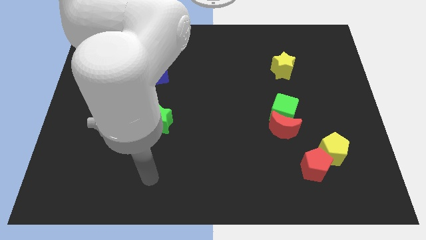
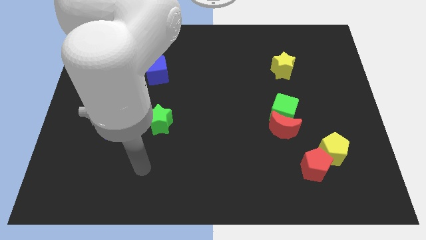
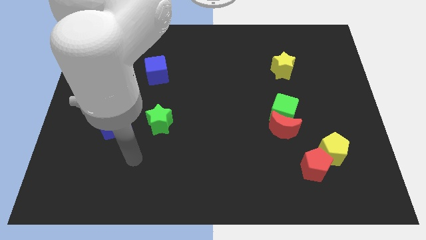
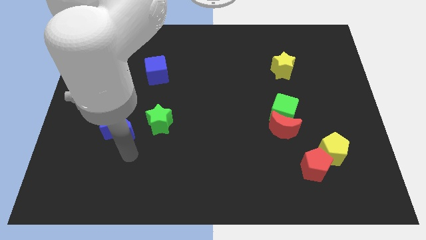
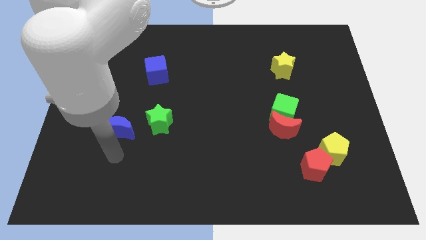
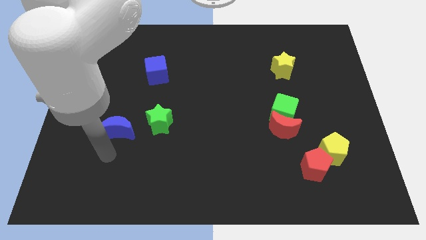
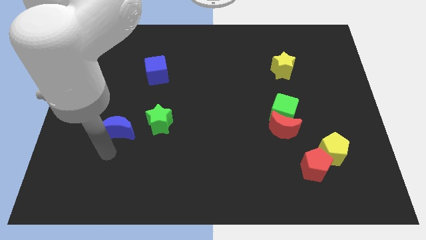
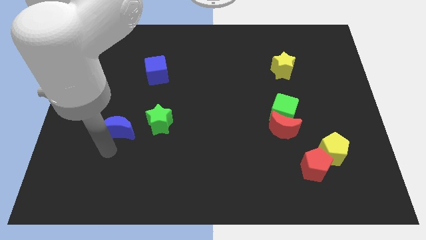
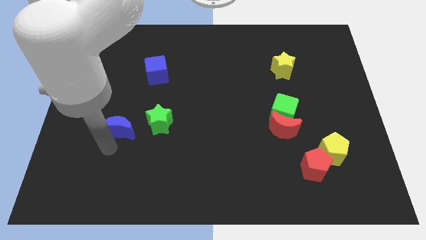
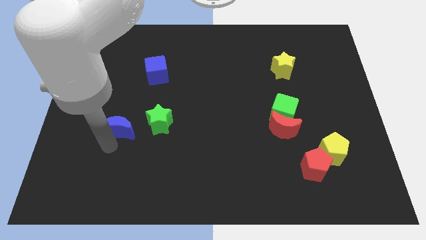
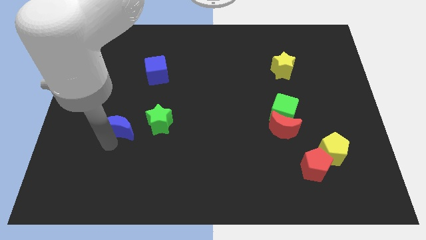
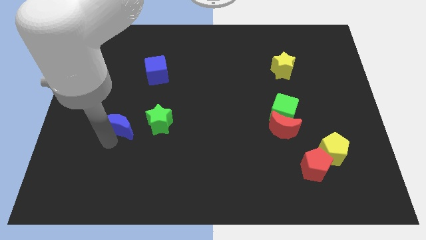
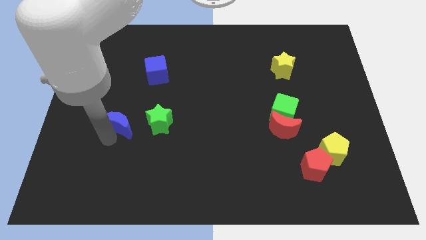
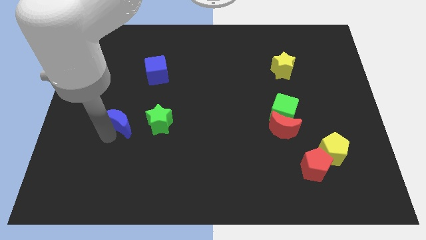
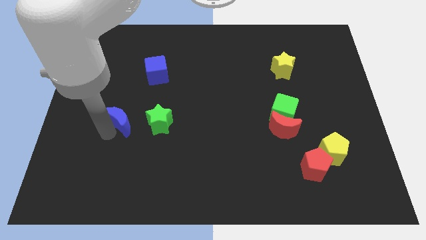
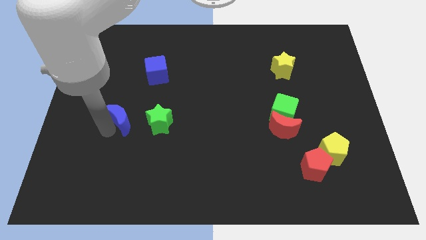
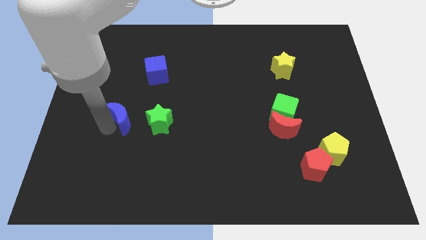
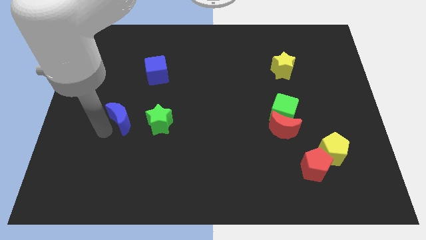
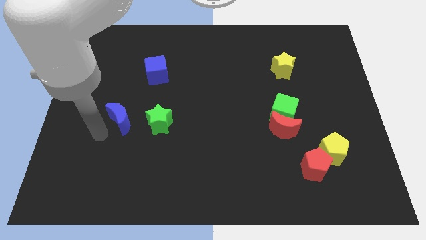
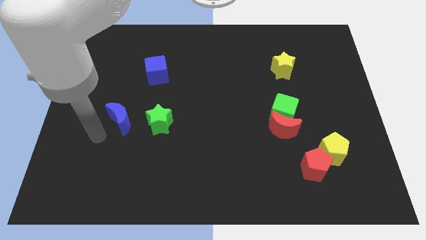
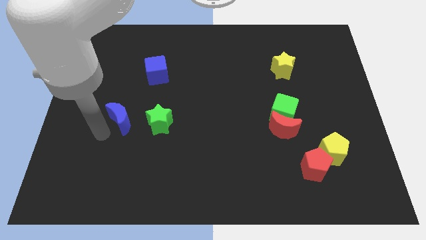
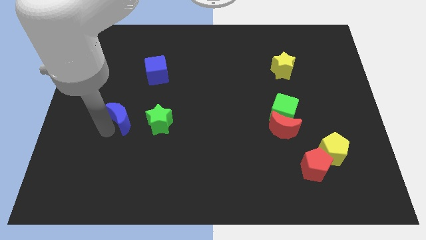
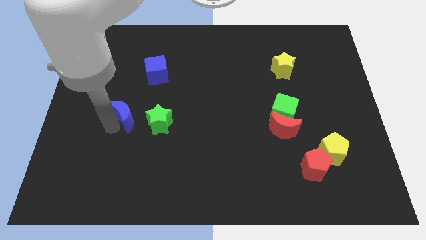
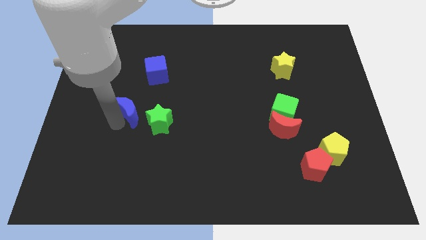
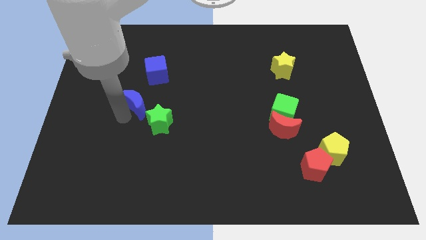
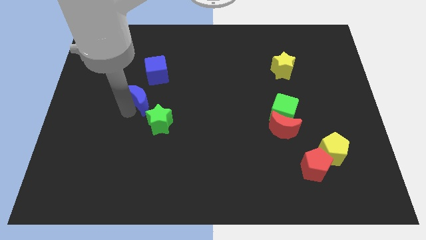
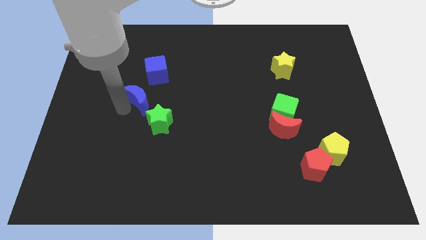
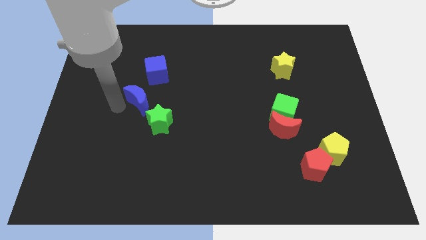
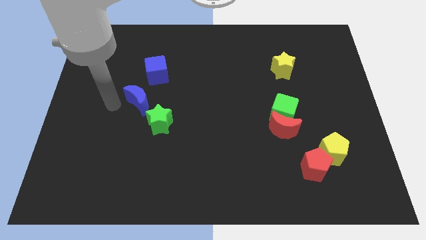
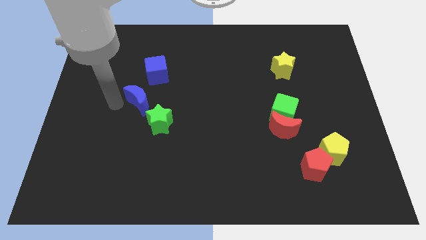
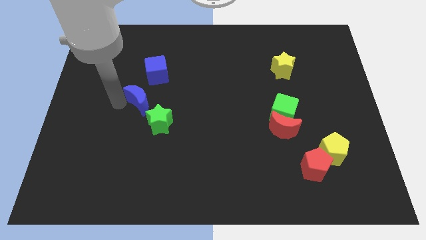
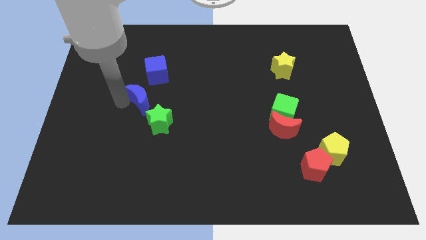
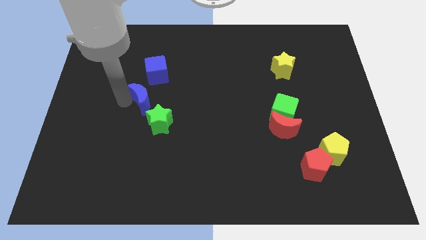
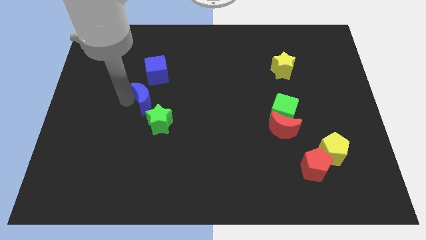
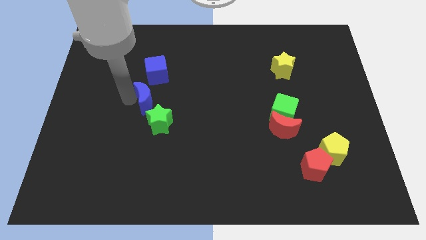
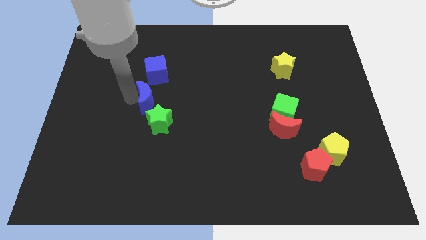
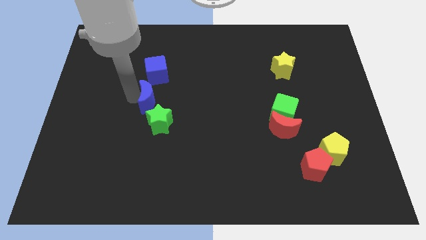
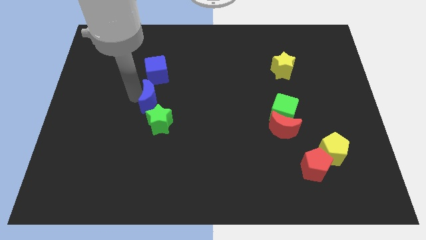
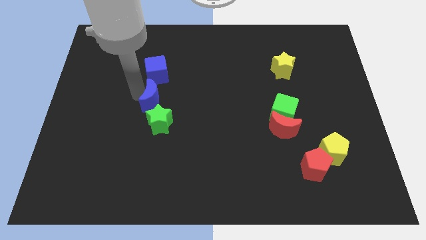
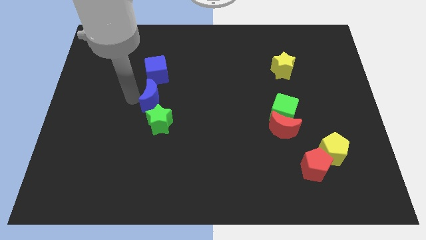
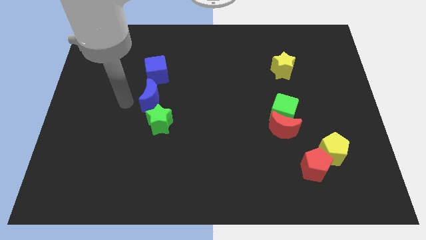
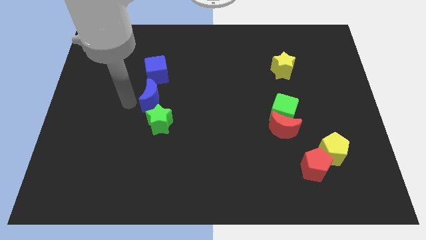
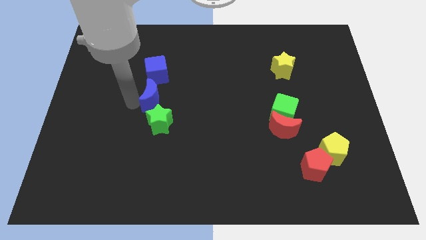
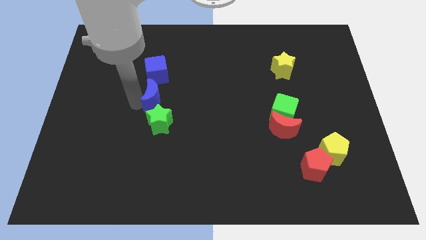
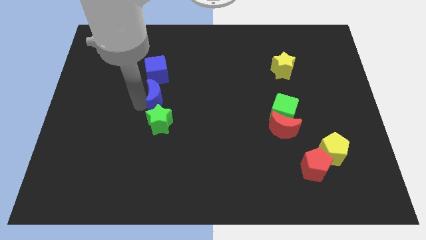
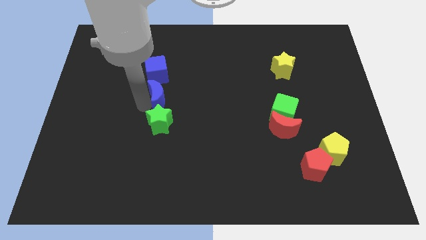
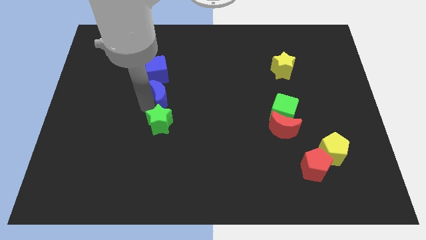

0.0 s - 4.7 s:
put the blue moon to the center

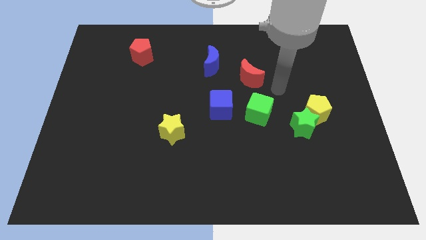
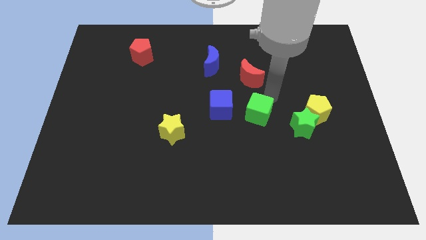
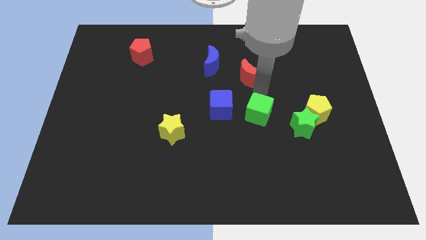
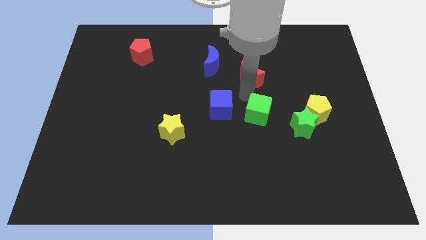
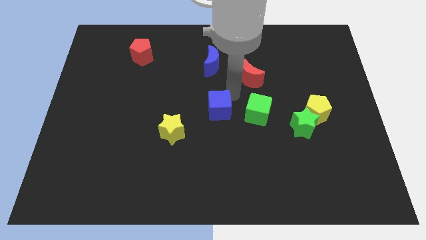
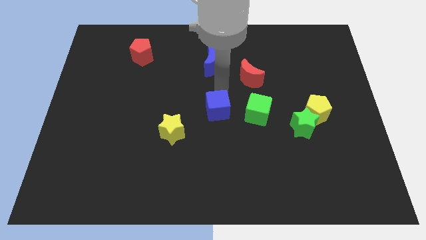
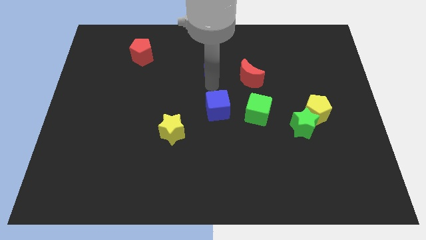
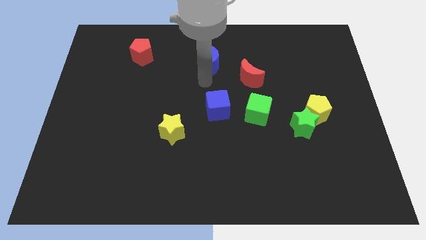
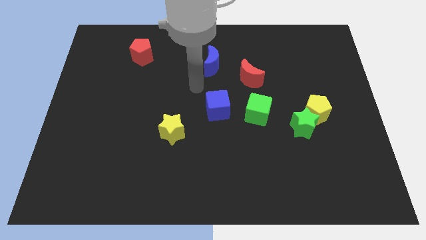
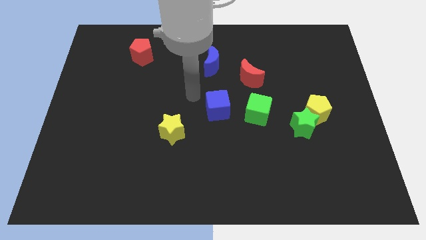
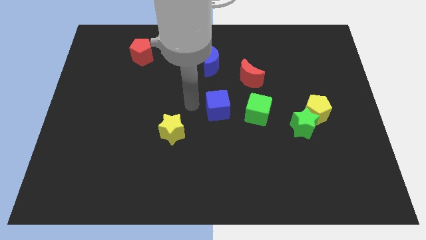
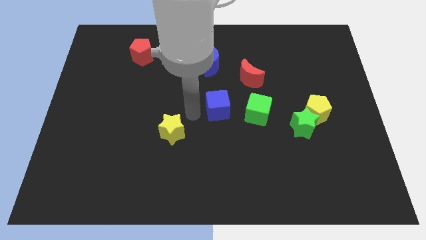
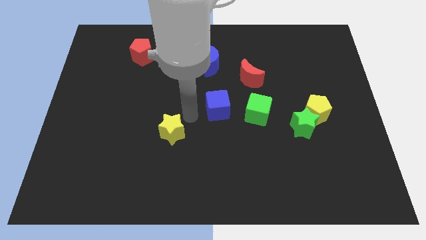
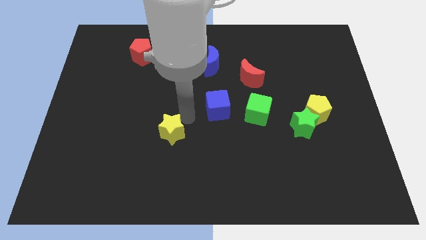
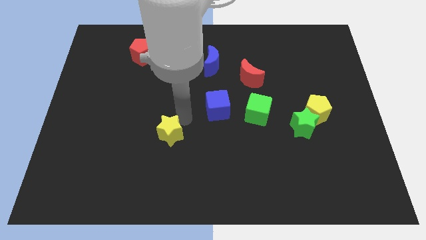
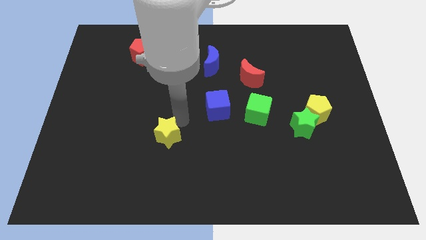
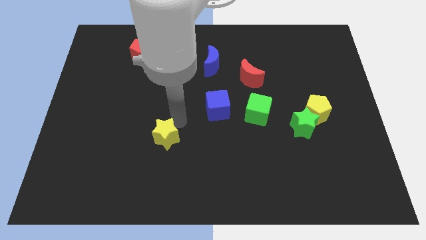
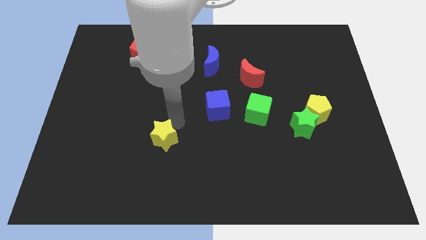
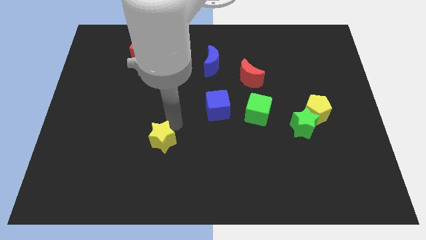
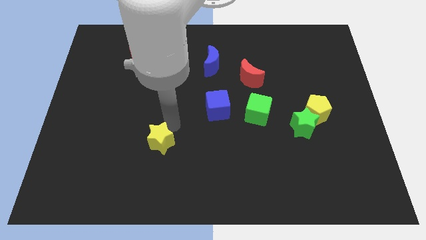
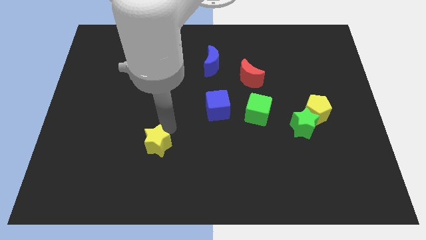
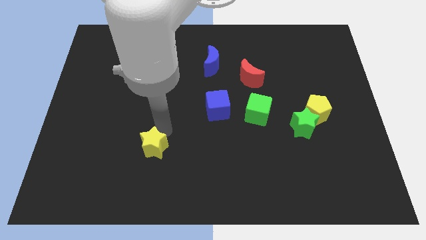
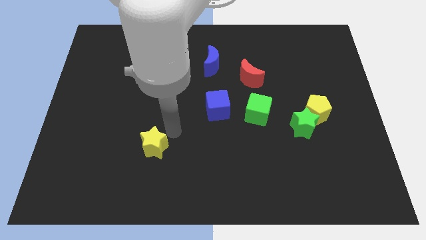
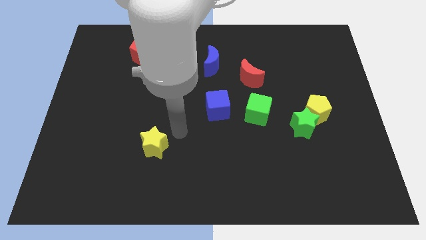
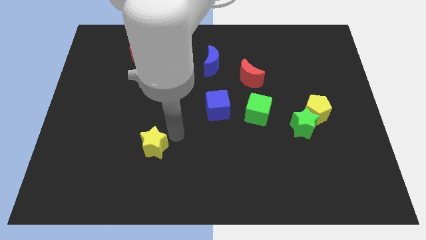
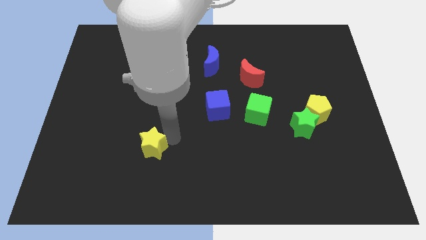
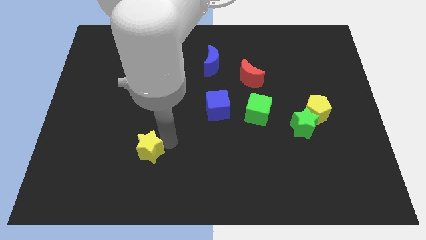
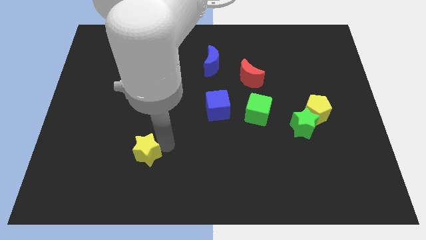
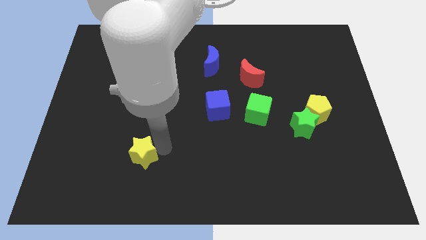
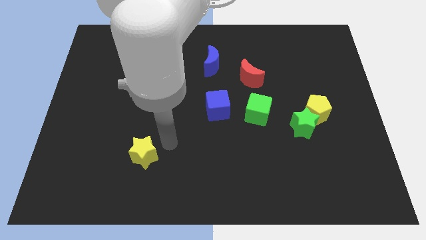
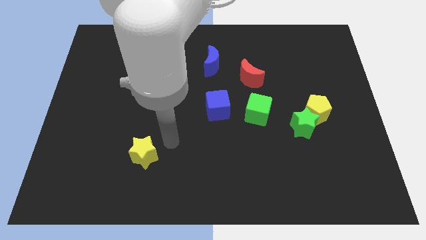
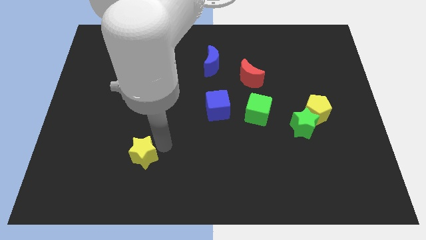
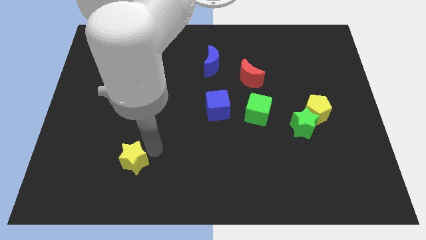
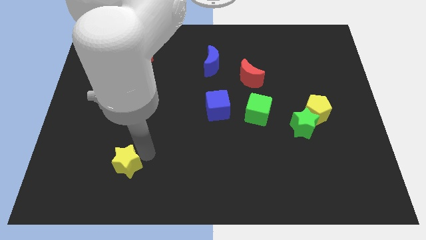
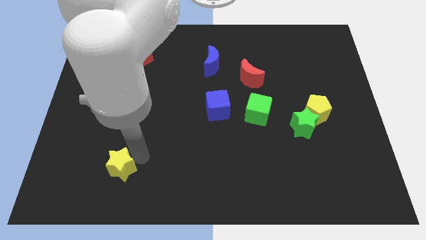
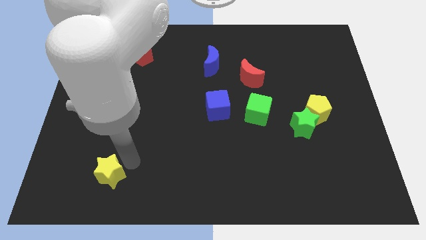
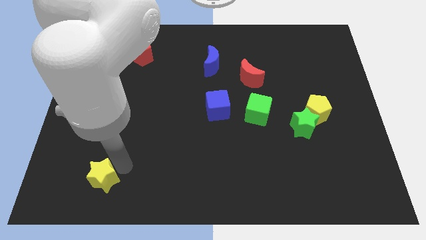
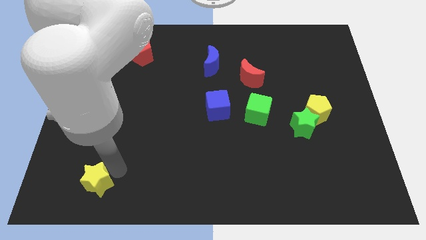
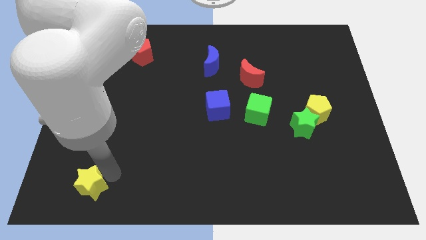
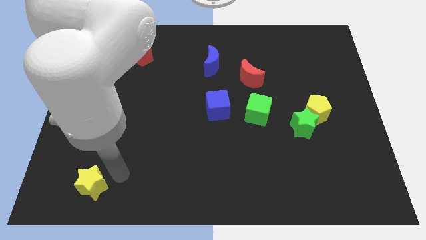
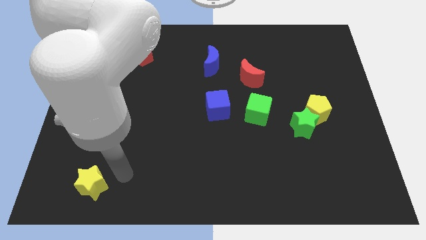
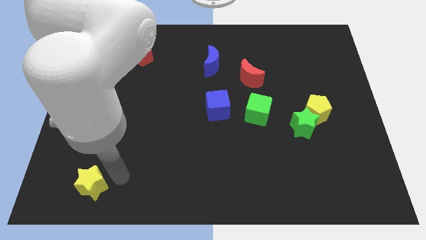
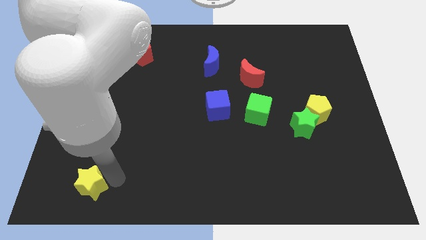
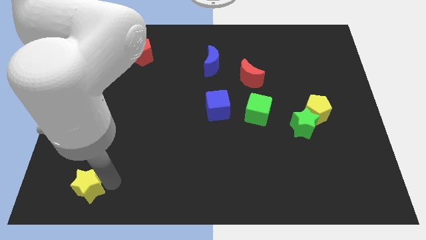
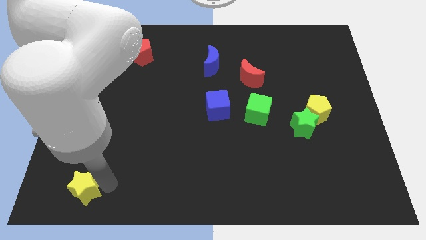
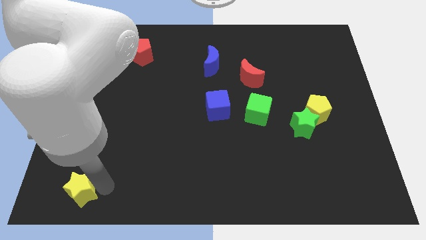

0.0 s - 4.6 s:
put the yellow star to the bottom left
